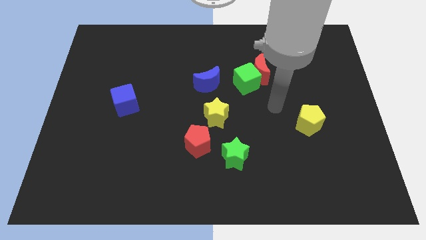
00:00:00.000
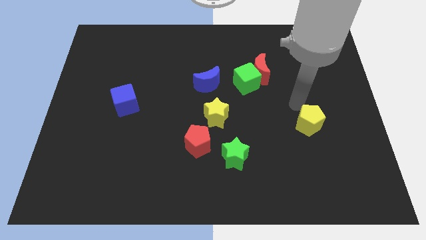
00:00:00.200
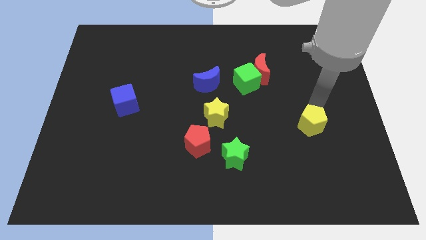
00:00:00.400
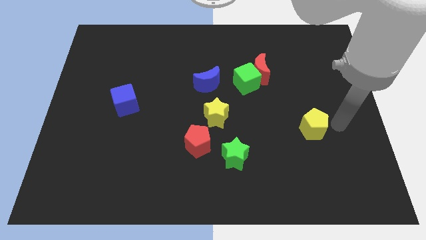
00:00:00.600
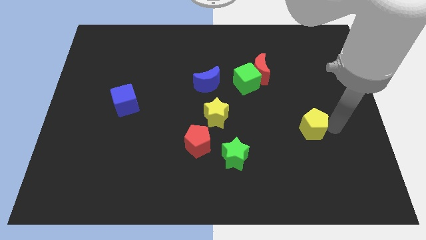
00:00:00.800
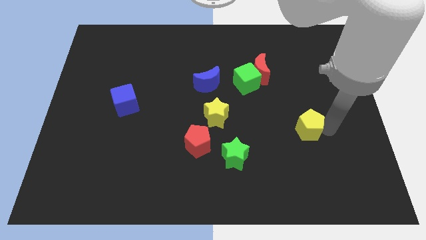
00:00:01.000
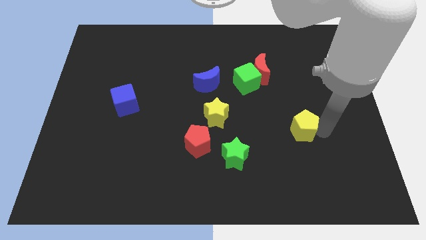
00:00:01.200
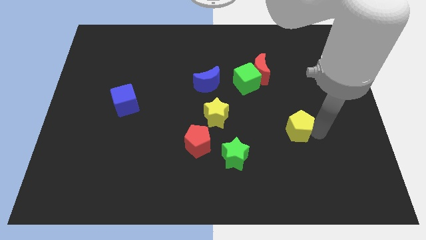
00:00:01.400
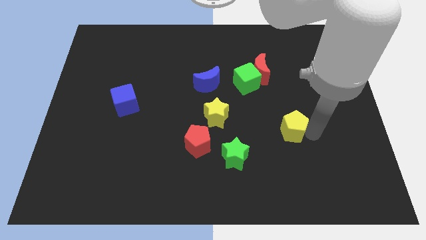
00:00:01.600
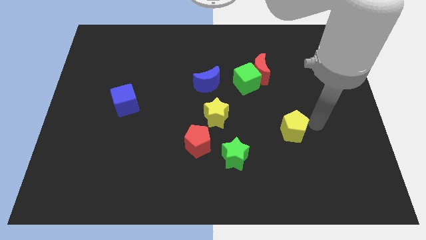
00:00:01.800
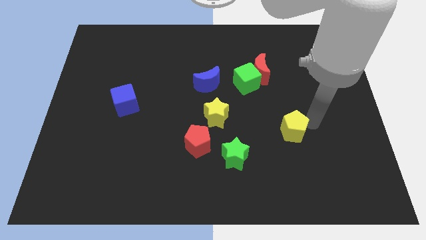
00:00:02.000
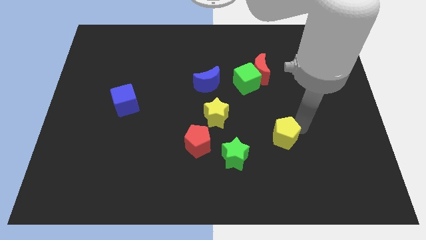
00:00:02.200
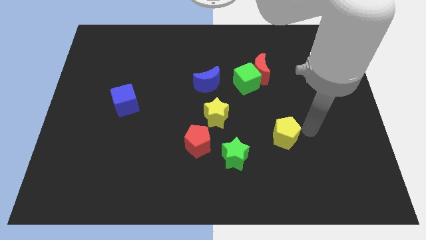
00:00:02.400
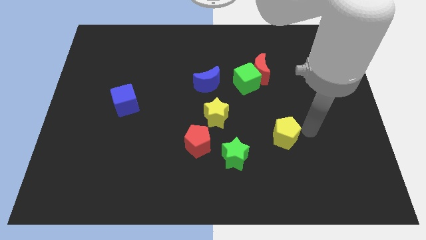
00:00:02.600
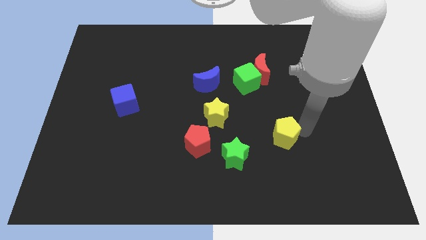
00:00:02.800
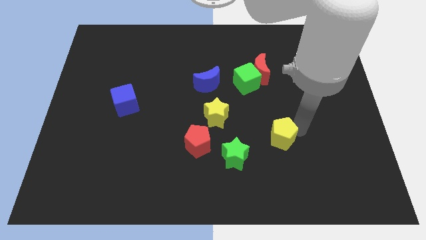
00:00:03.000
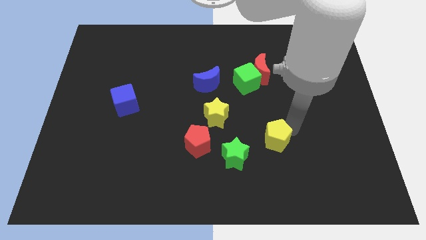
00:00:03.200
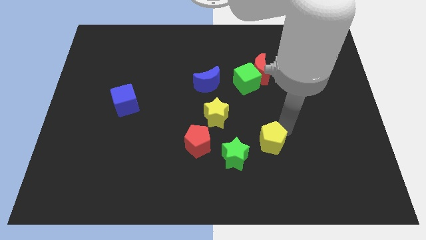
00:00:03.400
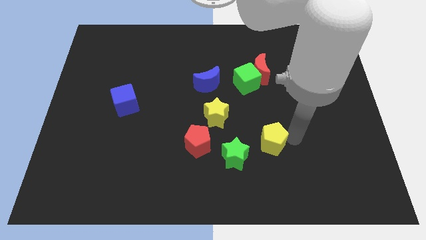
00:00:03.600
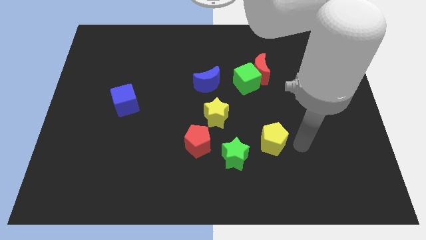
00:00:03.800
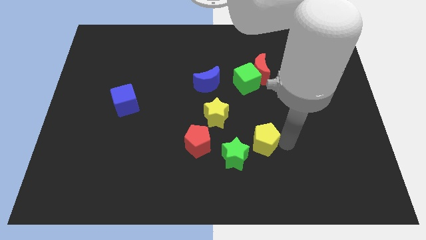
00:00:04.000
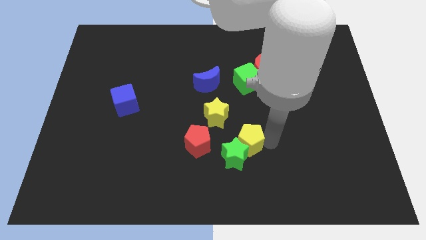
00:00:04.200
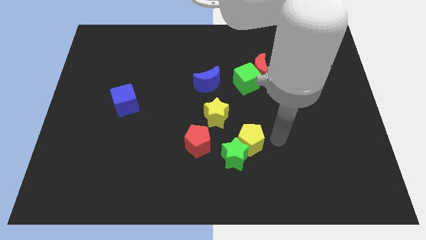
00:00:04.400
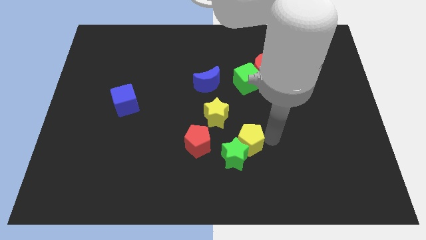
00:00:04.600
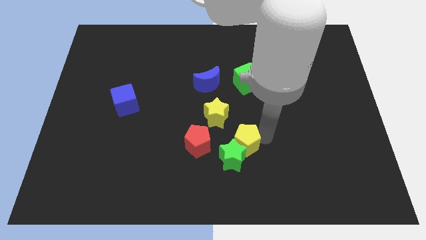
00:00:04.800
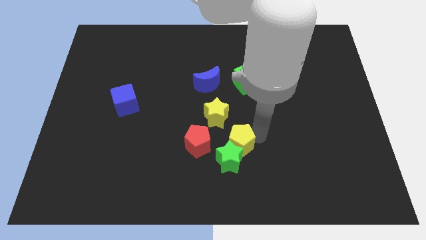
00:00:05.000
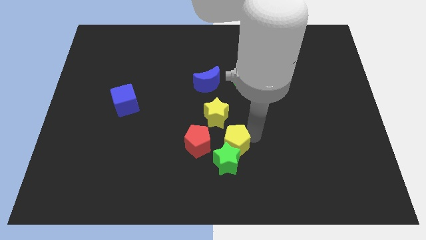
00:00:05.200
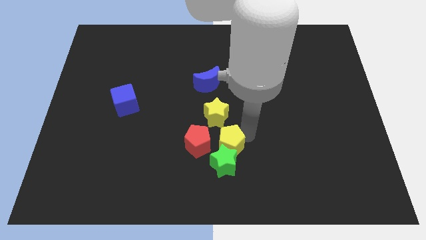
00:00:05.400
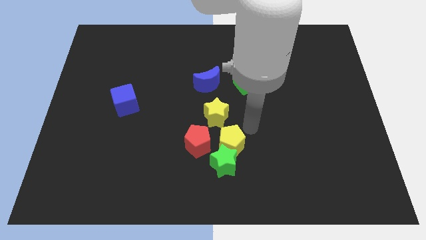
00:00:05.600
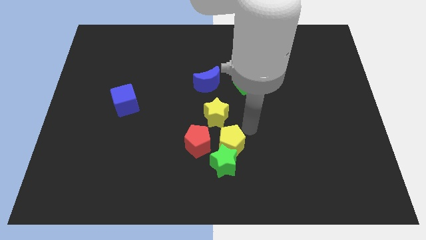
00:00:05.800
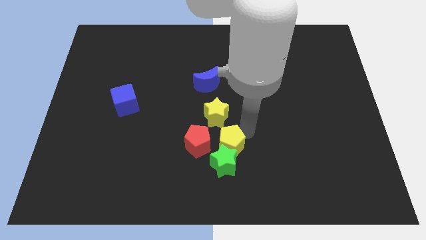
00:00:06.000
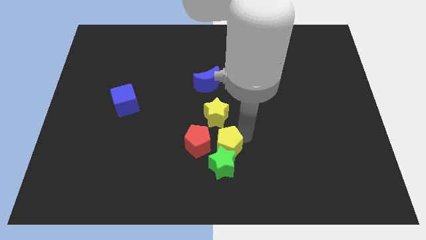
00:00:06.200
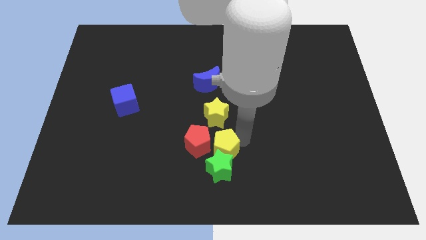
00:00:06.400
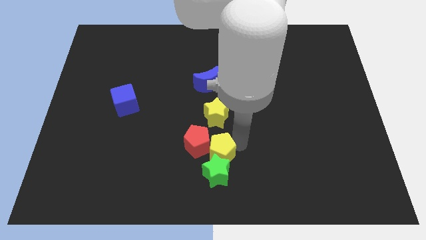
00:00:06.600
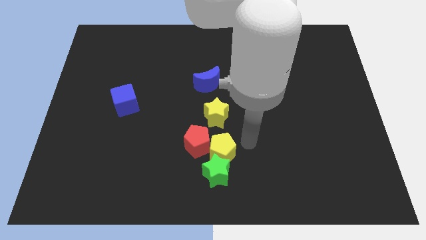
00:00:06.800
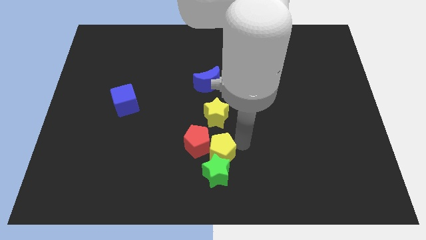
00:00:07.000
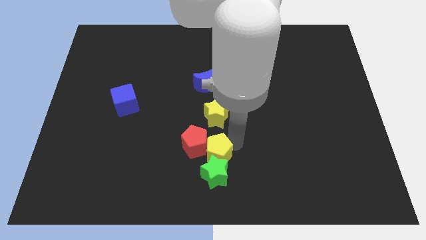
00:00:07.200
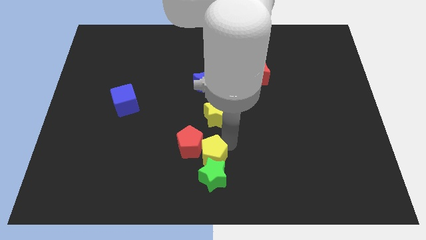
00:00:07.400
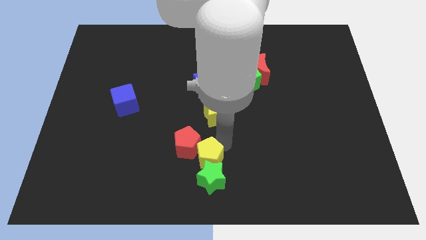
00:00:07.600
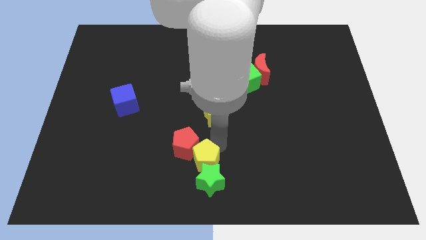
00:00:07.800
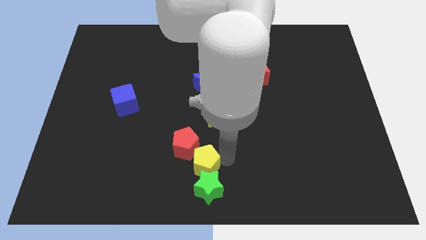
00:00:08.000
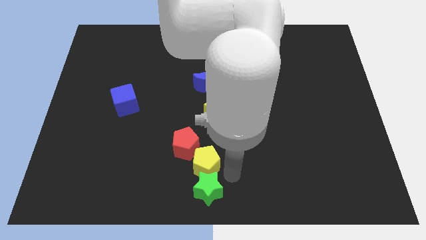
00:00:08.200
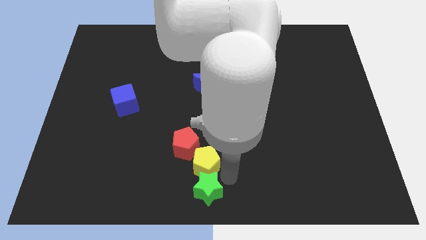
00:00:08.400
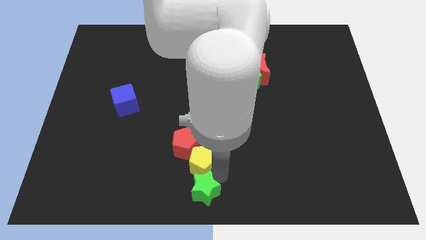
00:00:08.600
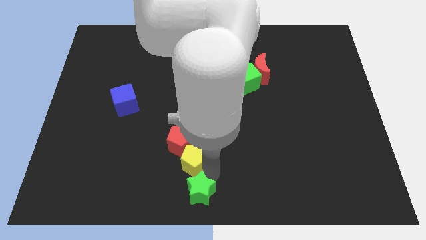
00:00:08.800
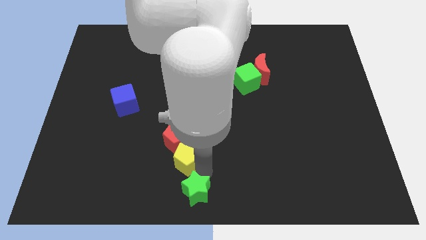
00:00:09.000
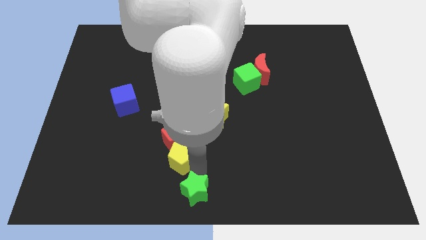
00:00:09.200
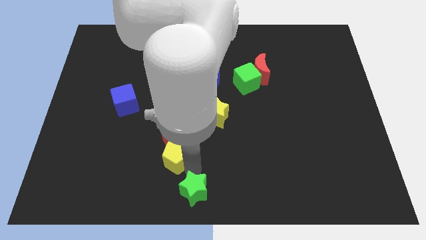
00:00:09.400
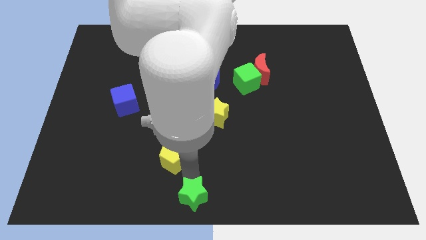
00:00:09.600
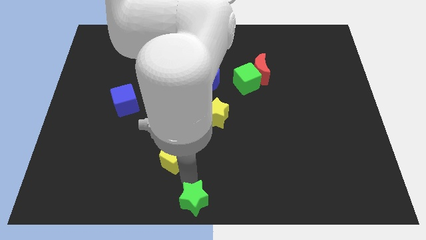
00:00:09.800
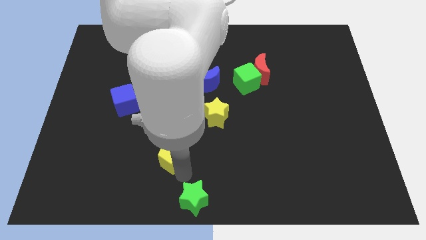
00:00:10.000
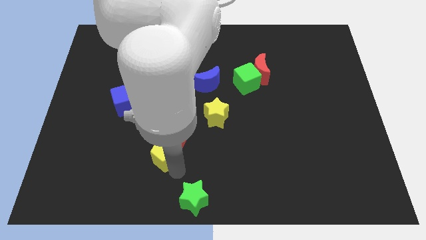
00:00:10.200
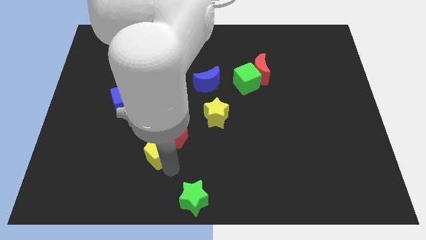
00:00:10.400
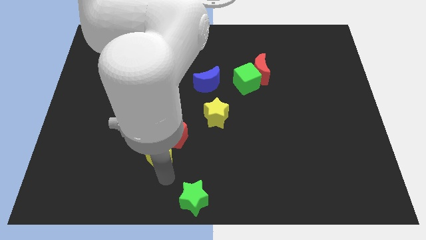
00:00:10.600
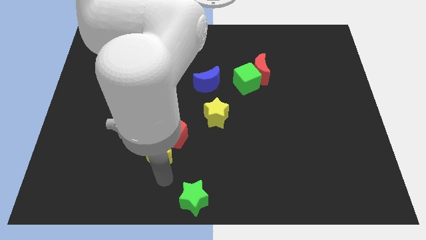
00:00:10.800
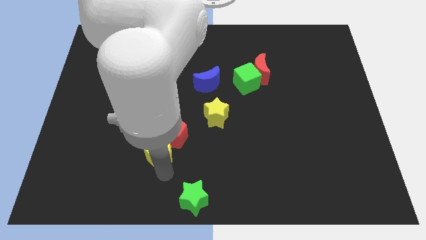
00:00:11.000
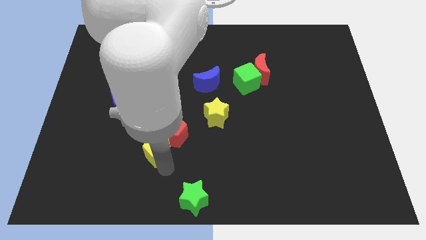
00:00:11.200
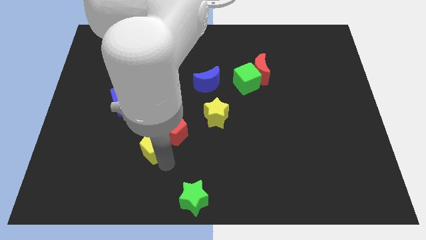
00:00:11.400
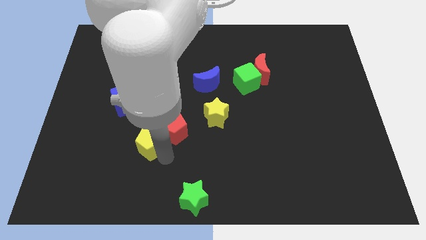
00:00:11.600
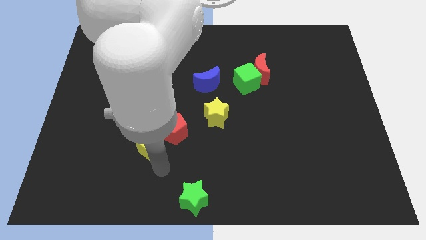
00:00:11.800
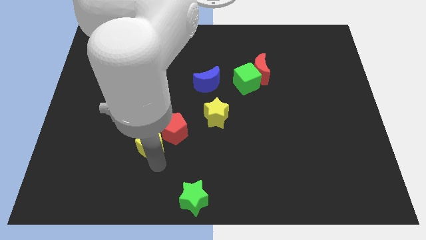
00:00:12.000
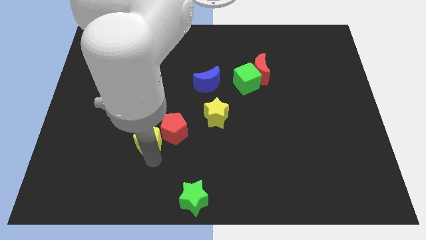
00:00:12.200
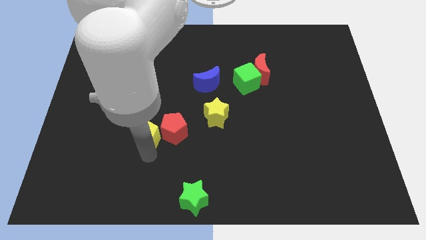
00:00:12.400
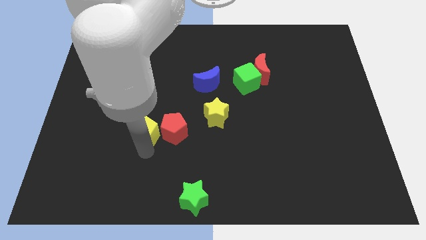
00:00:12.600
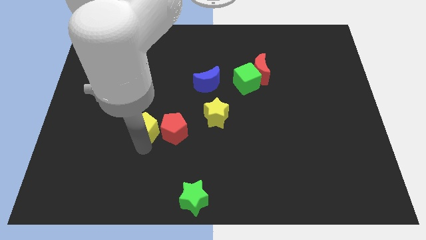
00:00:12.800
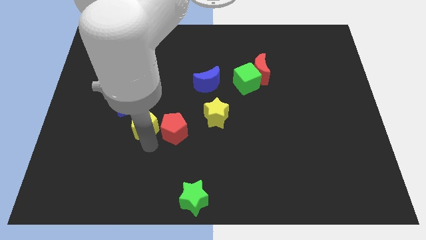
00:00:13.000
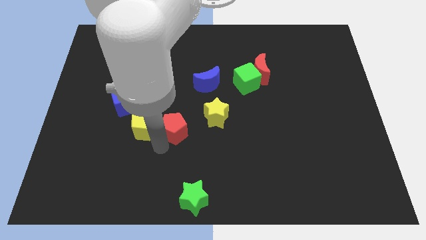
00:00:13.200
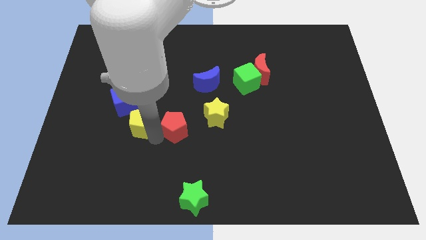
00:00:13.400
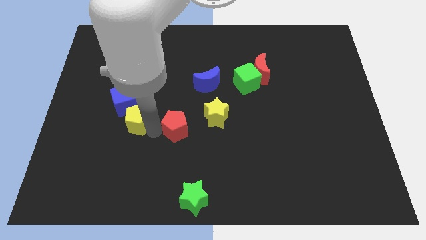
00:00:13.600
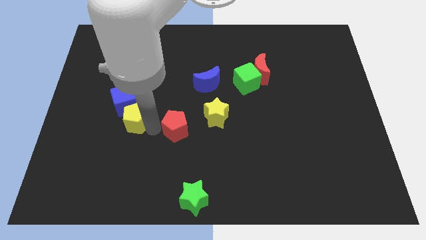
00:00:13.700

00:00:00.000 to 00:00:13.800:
move the yellow pentagon next to the blue cube

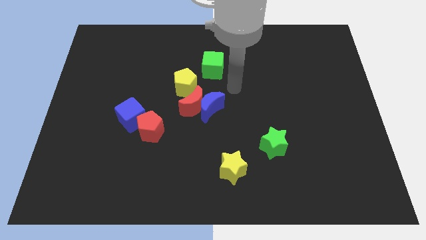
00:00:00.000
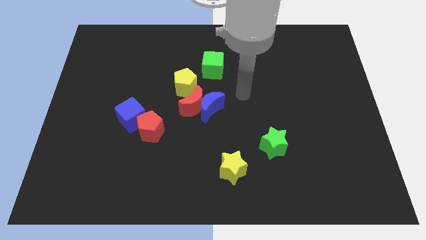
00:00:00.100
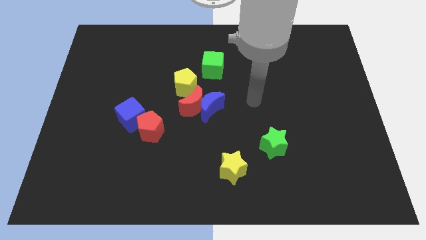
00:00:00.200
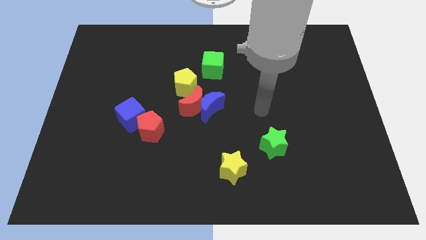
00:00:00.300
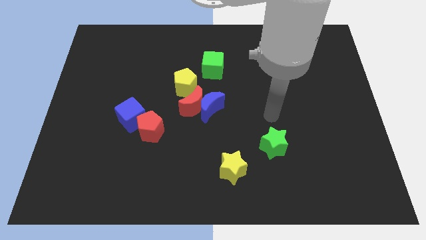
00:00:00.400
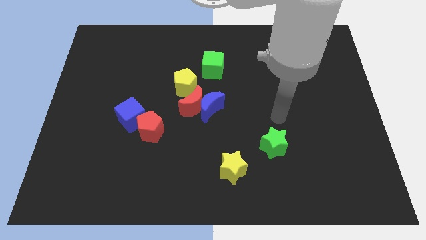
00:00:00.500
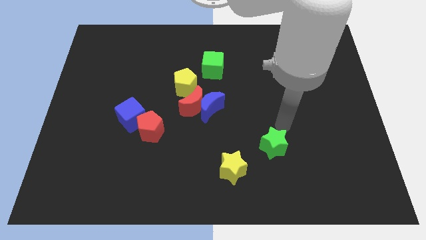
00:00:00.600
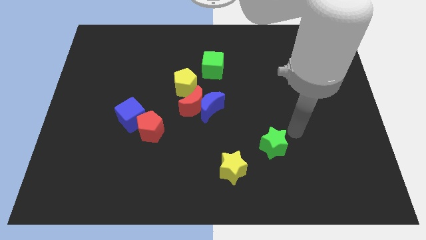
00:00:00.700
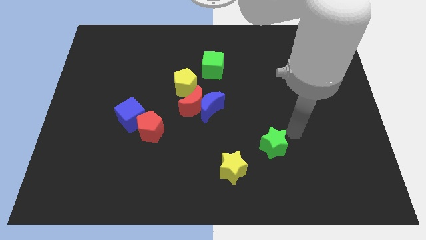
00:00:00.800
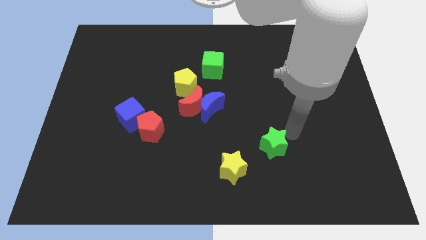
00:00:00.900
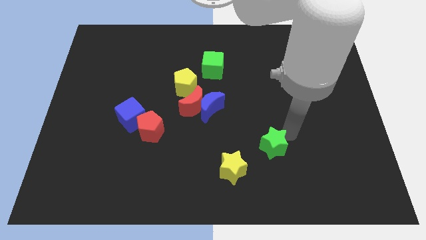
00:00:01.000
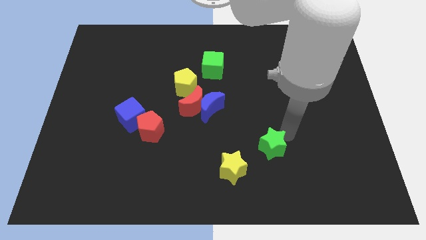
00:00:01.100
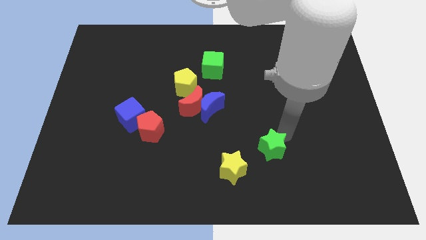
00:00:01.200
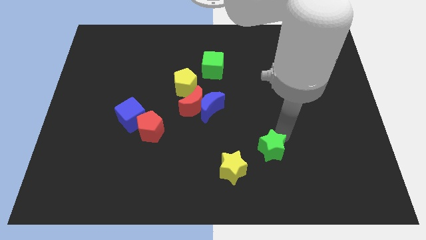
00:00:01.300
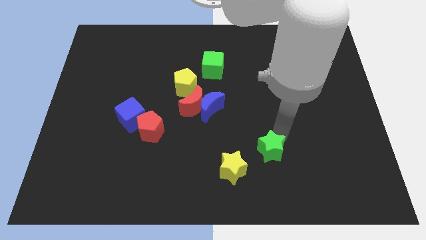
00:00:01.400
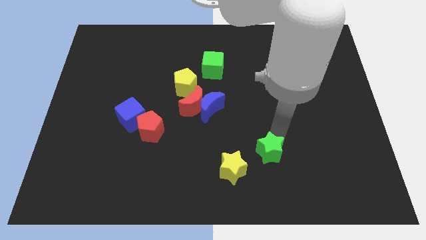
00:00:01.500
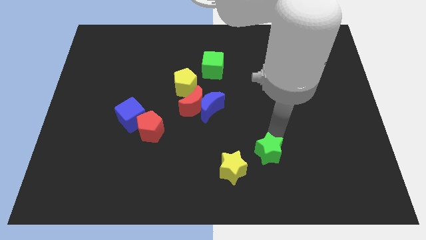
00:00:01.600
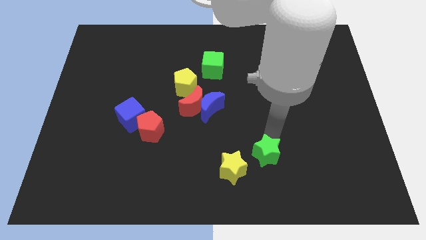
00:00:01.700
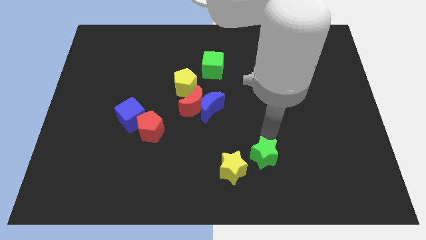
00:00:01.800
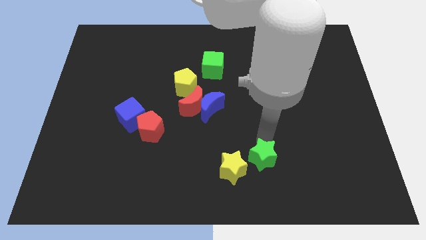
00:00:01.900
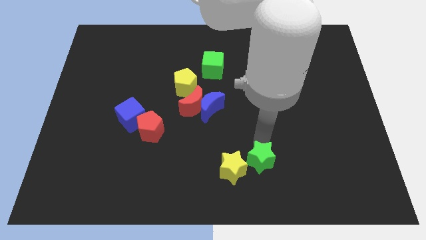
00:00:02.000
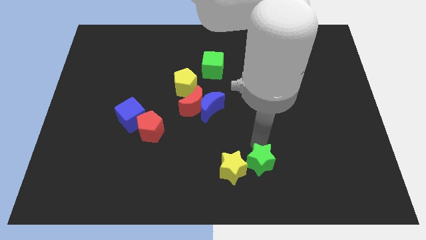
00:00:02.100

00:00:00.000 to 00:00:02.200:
push the green star close to the yellow star
